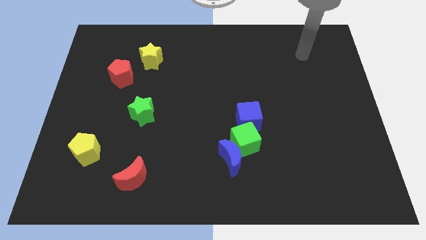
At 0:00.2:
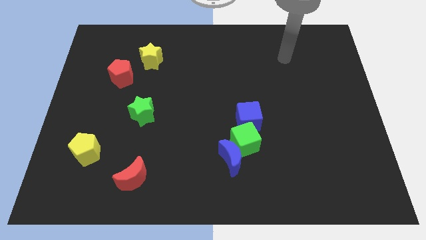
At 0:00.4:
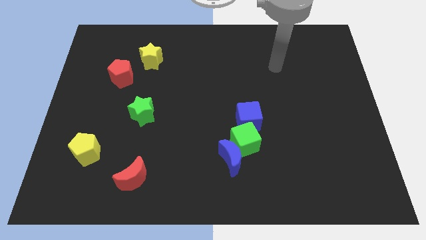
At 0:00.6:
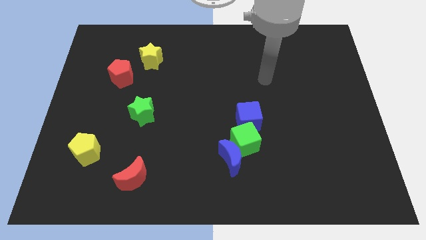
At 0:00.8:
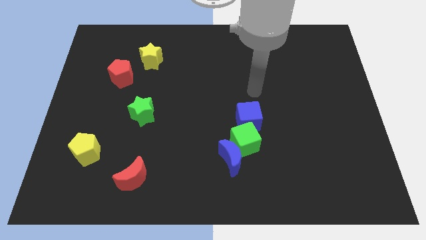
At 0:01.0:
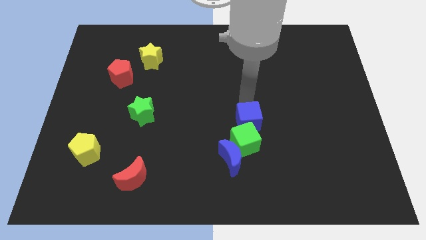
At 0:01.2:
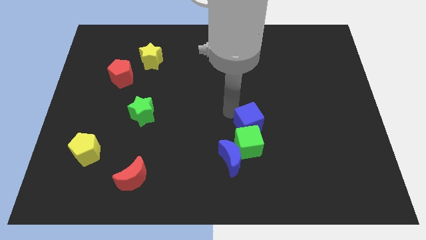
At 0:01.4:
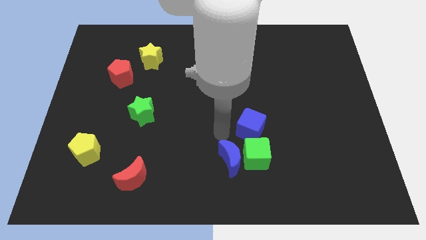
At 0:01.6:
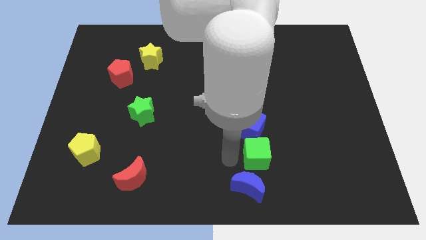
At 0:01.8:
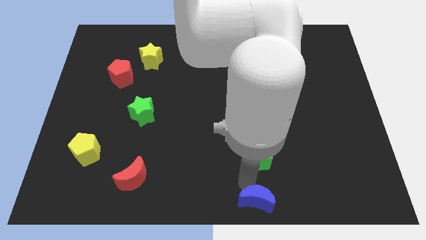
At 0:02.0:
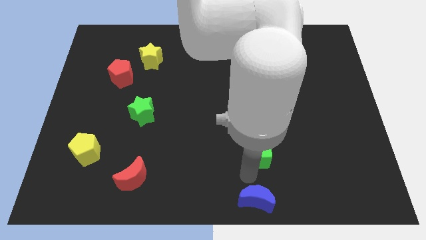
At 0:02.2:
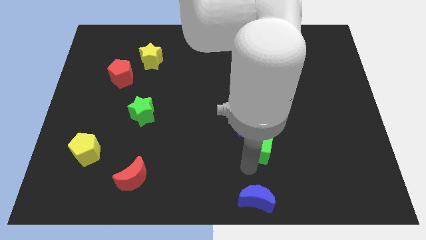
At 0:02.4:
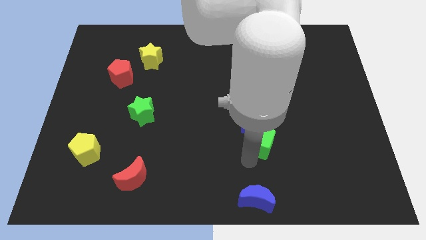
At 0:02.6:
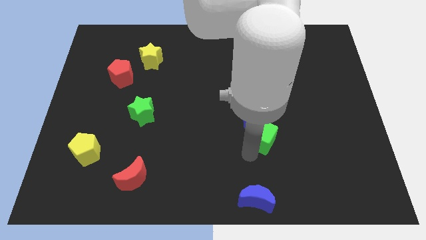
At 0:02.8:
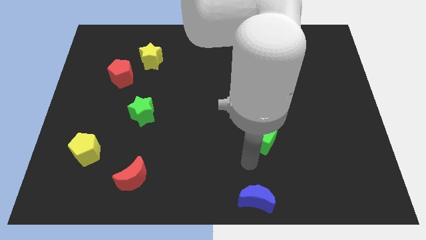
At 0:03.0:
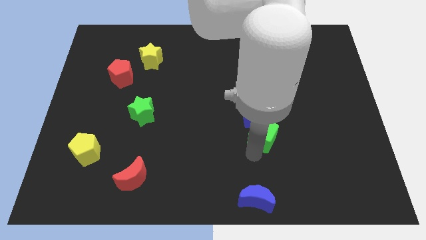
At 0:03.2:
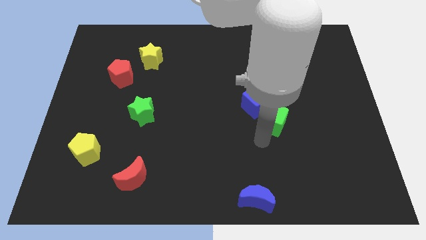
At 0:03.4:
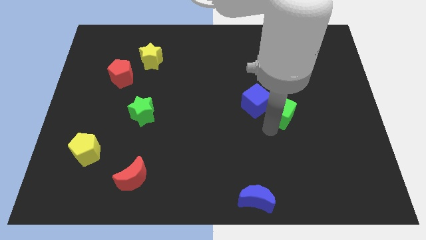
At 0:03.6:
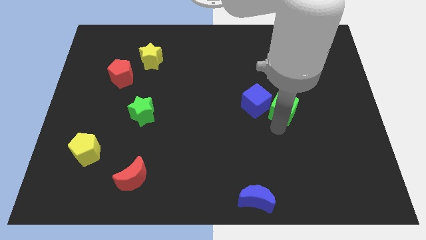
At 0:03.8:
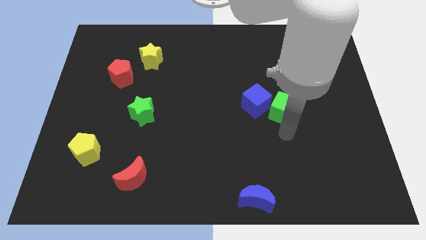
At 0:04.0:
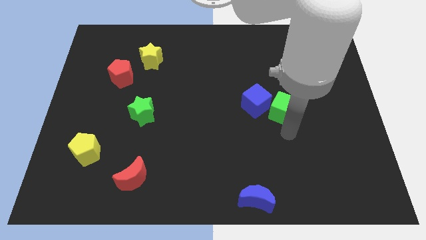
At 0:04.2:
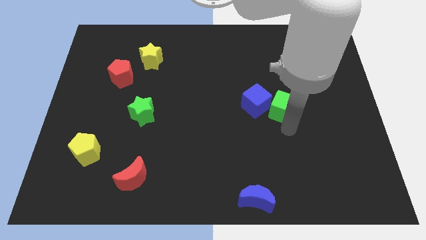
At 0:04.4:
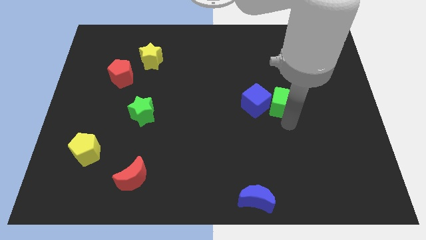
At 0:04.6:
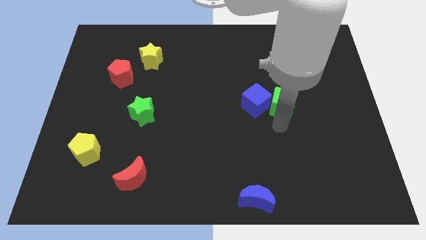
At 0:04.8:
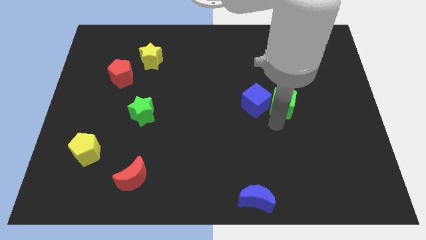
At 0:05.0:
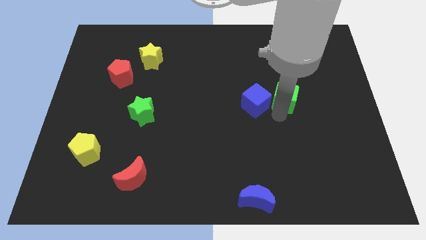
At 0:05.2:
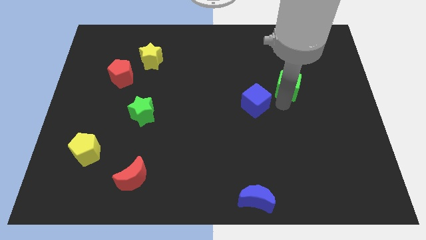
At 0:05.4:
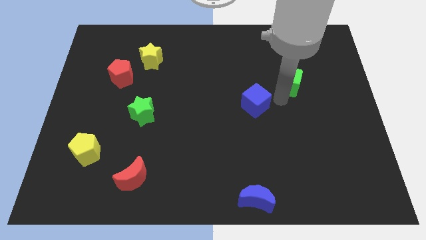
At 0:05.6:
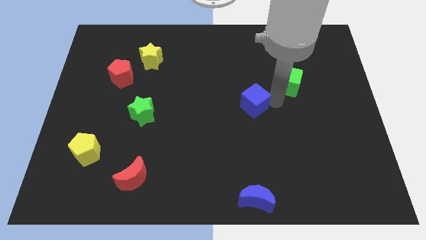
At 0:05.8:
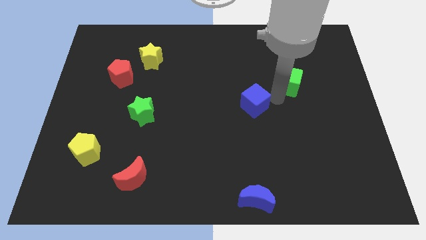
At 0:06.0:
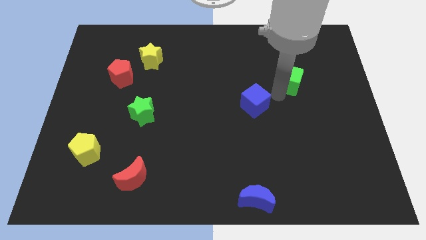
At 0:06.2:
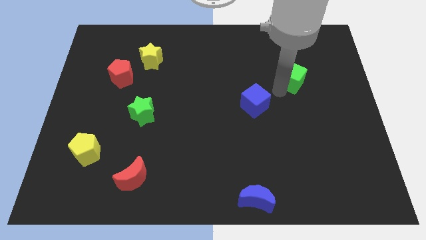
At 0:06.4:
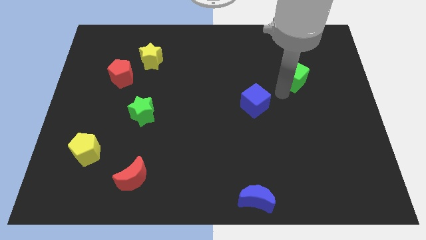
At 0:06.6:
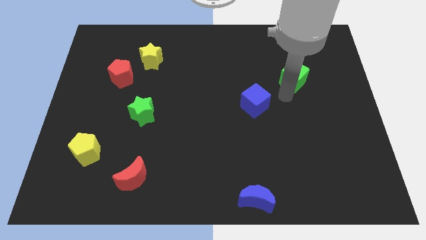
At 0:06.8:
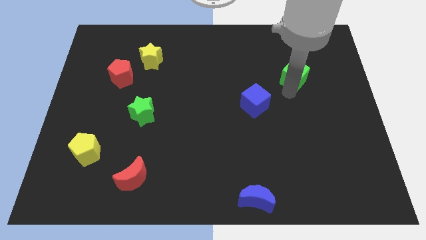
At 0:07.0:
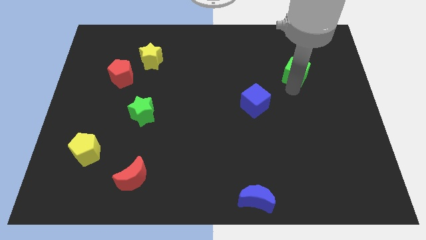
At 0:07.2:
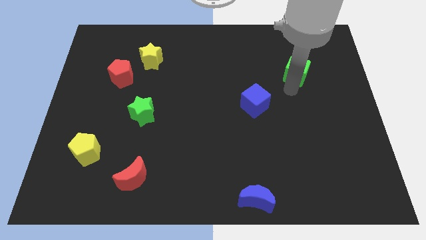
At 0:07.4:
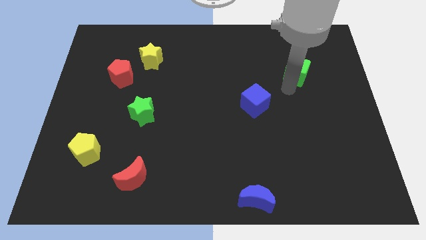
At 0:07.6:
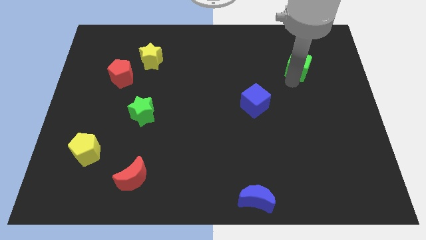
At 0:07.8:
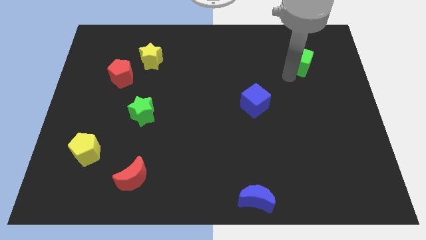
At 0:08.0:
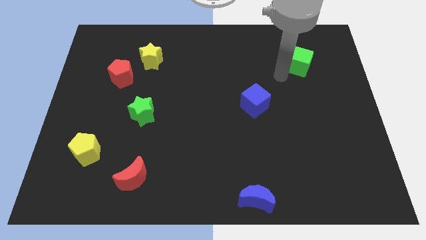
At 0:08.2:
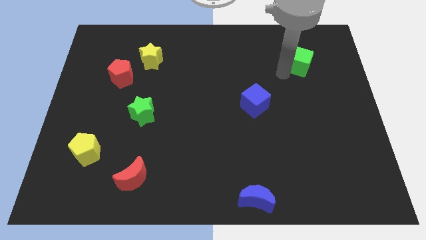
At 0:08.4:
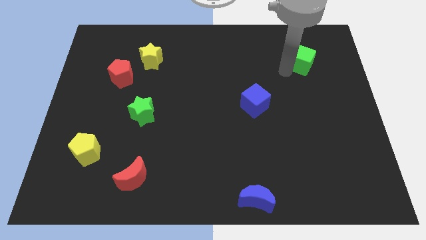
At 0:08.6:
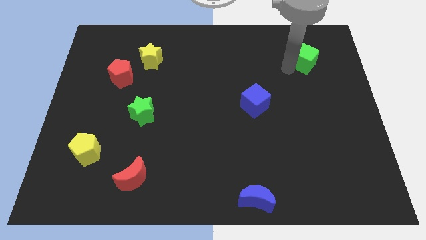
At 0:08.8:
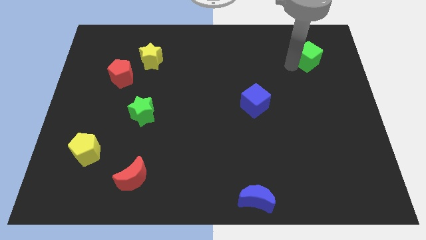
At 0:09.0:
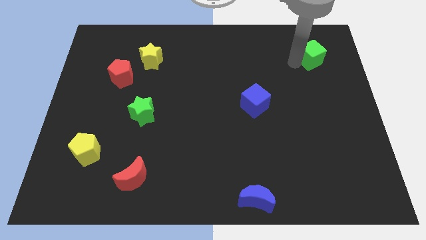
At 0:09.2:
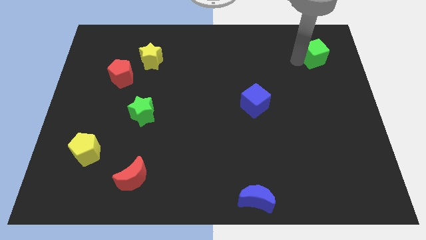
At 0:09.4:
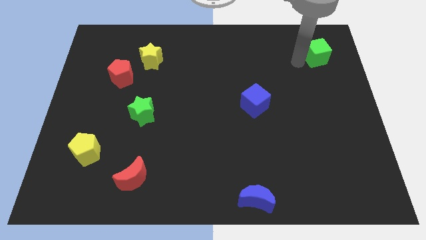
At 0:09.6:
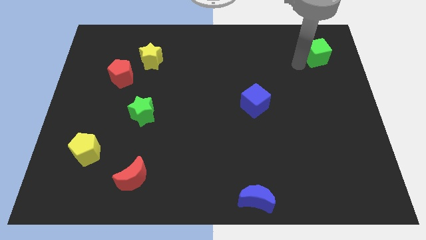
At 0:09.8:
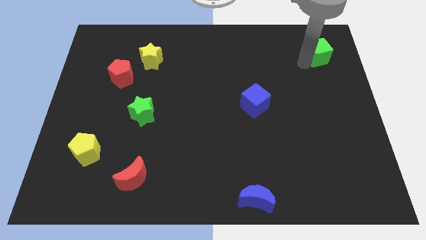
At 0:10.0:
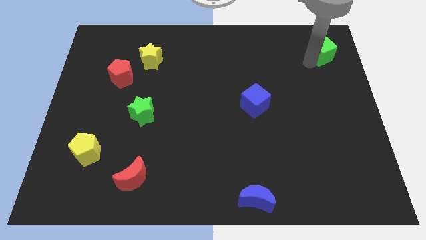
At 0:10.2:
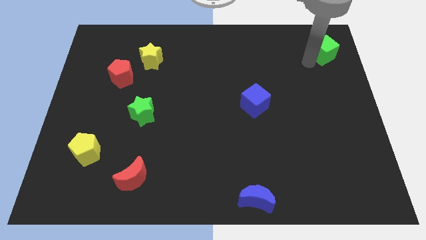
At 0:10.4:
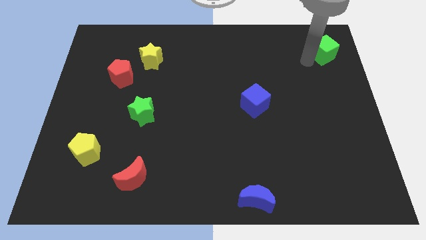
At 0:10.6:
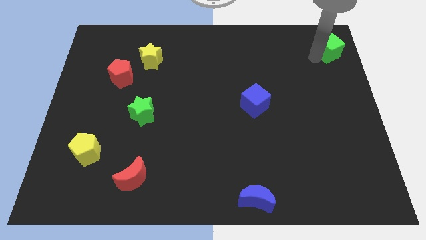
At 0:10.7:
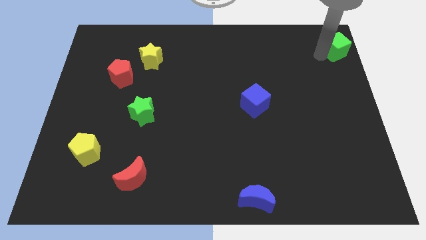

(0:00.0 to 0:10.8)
push the green cube to the top right

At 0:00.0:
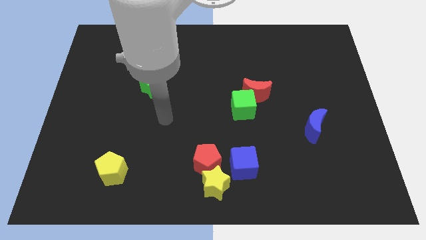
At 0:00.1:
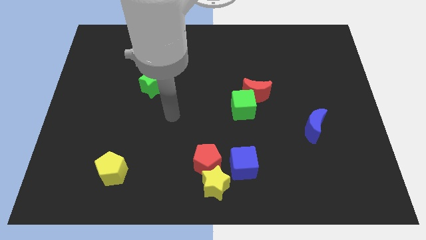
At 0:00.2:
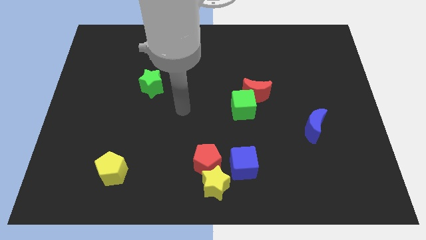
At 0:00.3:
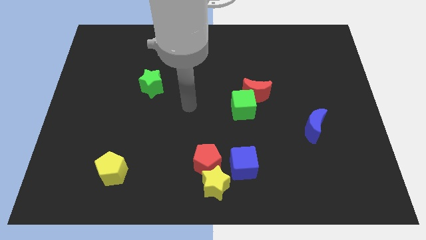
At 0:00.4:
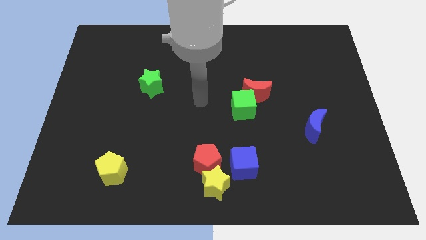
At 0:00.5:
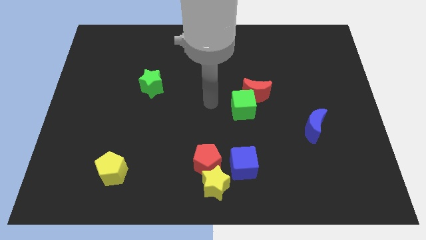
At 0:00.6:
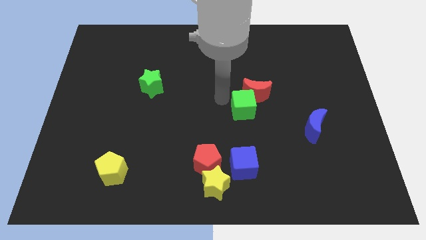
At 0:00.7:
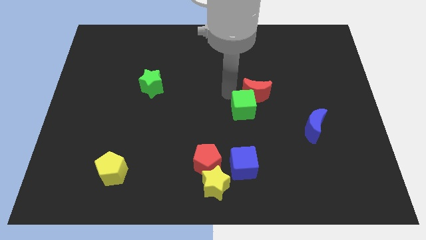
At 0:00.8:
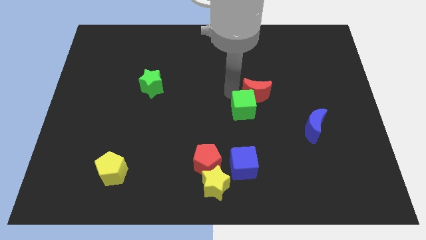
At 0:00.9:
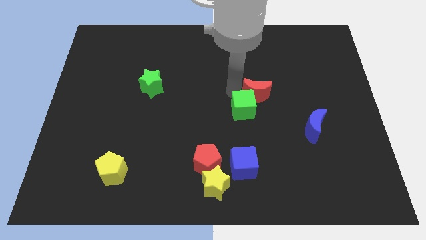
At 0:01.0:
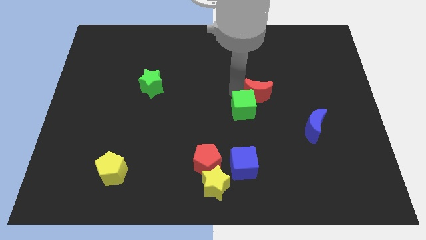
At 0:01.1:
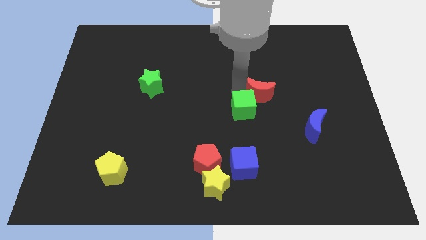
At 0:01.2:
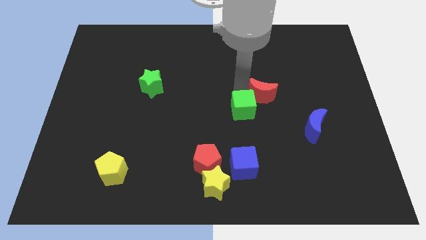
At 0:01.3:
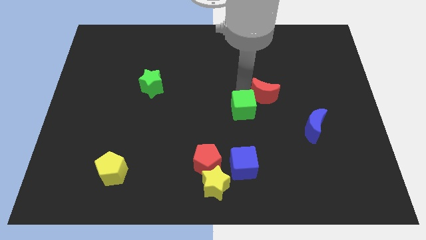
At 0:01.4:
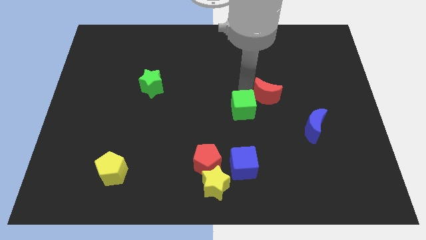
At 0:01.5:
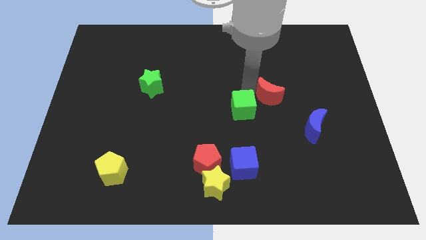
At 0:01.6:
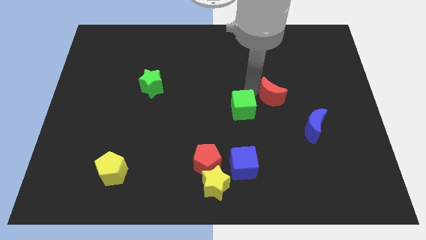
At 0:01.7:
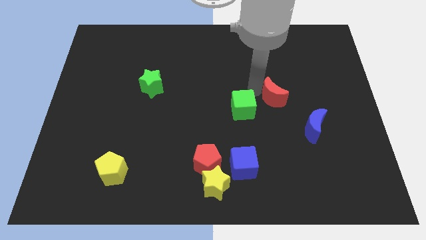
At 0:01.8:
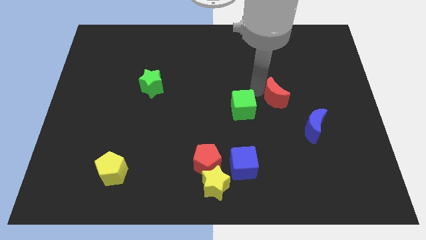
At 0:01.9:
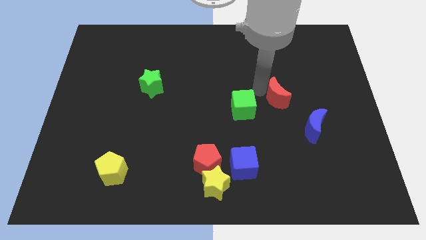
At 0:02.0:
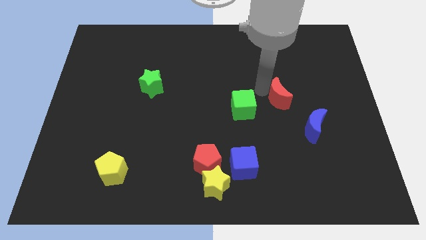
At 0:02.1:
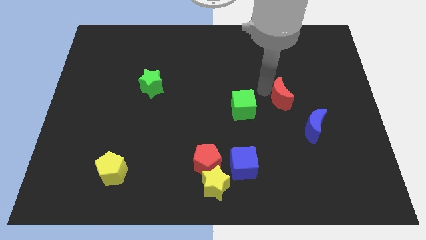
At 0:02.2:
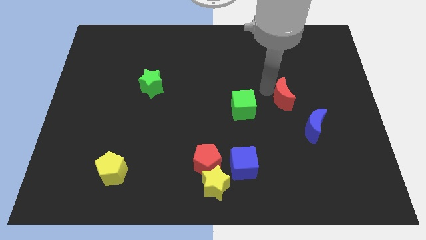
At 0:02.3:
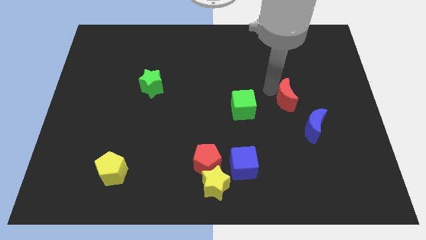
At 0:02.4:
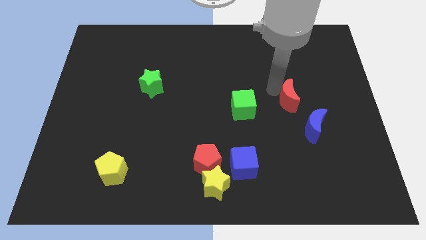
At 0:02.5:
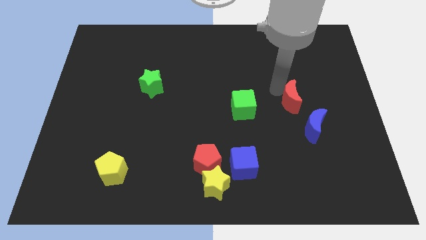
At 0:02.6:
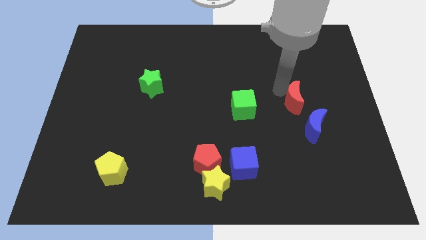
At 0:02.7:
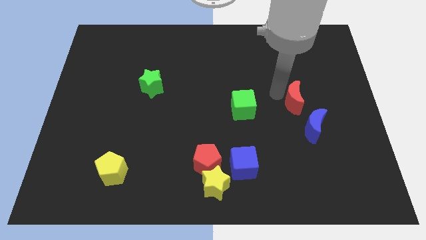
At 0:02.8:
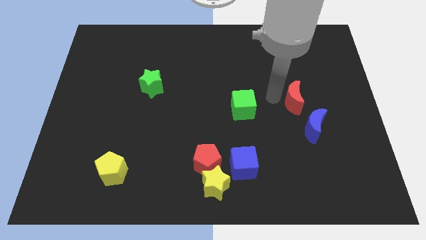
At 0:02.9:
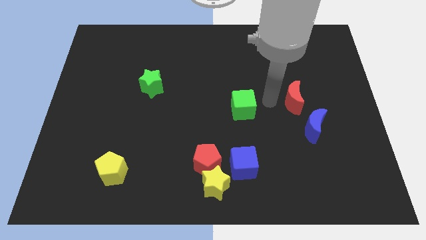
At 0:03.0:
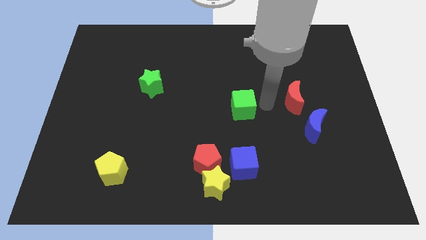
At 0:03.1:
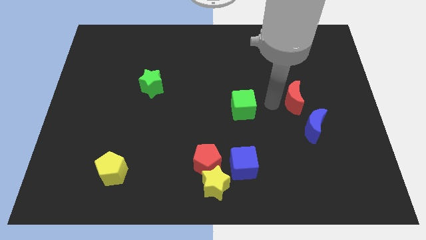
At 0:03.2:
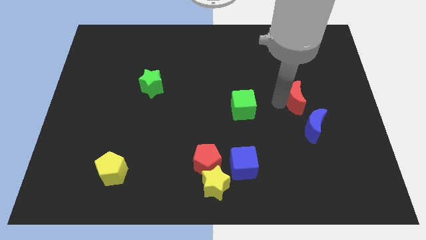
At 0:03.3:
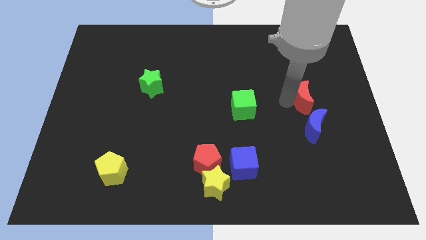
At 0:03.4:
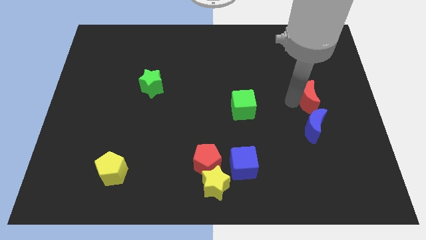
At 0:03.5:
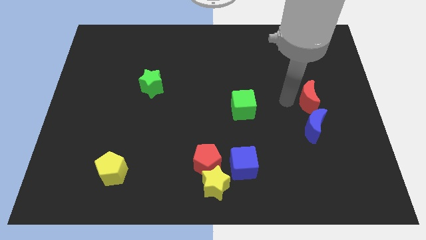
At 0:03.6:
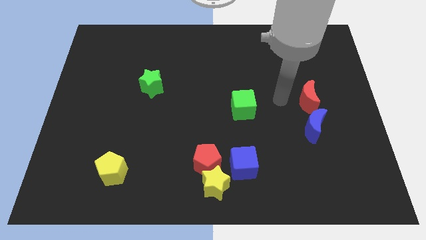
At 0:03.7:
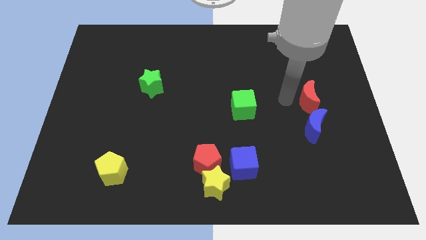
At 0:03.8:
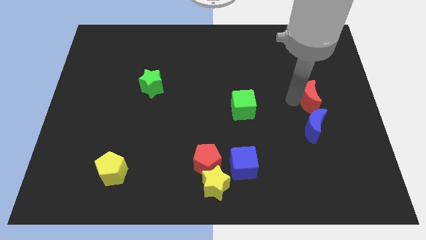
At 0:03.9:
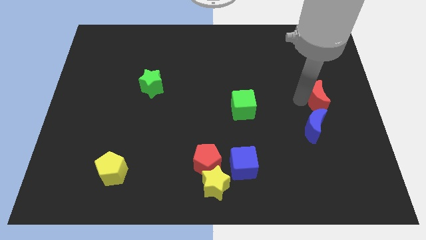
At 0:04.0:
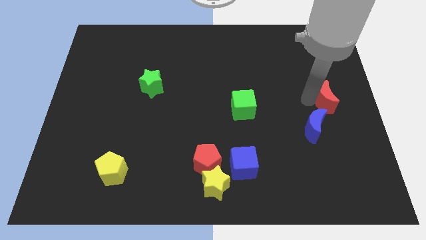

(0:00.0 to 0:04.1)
push the red moon to the right side of the board
